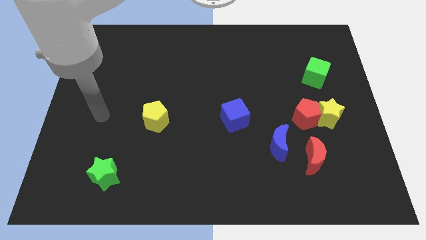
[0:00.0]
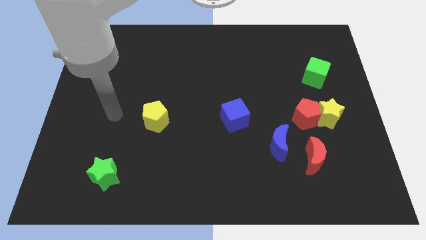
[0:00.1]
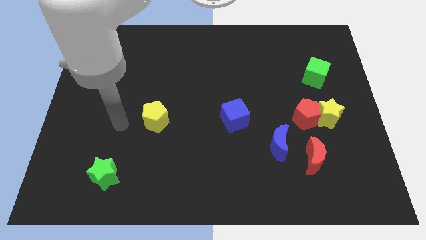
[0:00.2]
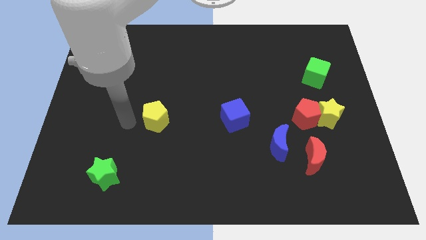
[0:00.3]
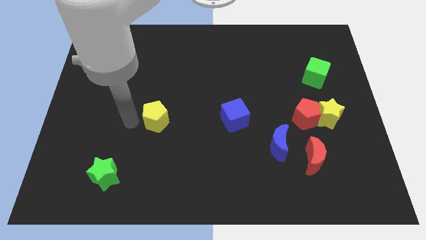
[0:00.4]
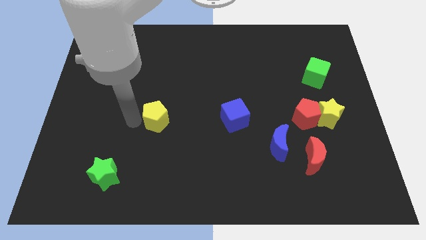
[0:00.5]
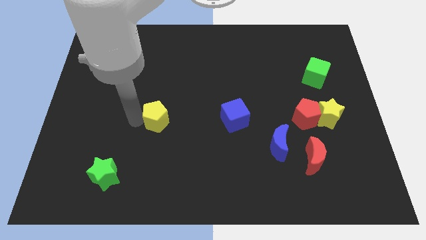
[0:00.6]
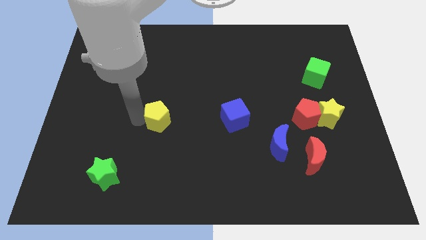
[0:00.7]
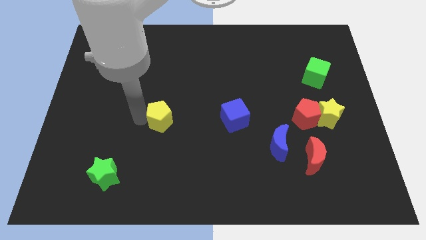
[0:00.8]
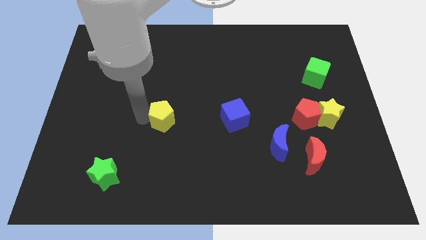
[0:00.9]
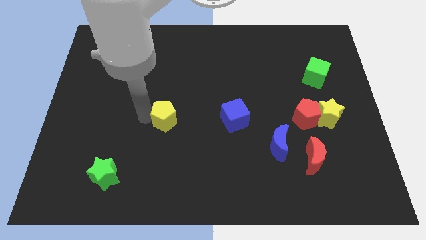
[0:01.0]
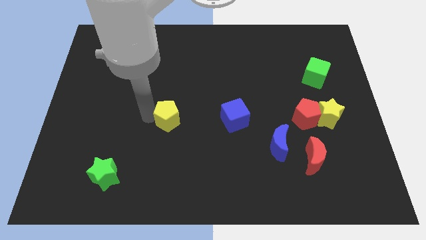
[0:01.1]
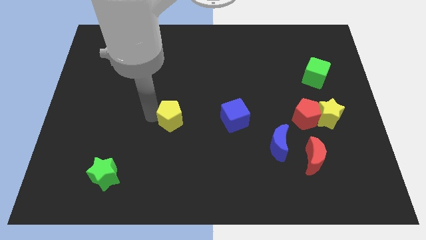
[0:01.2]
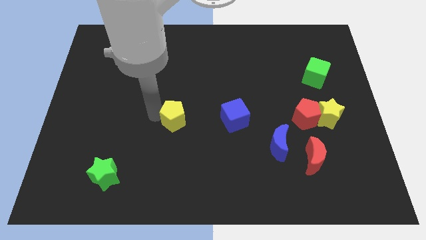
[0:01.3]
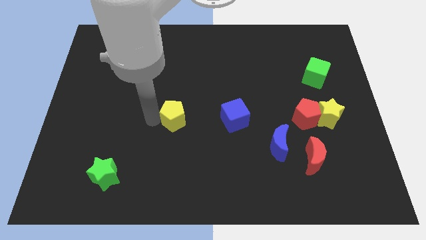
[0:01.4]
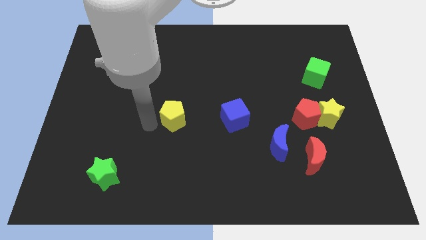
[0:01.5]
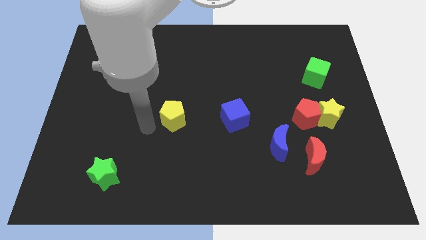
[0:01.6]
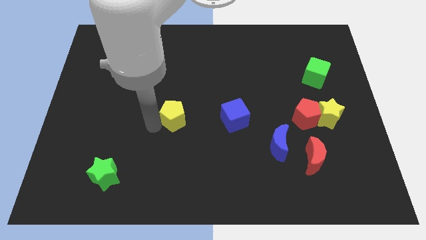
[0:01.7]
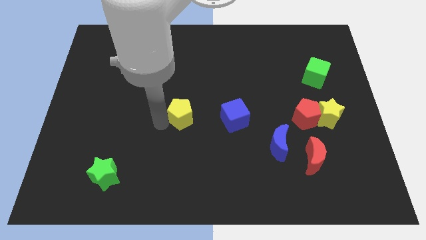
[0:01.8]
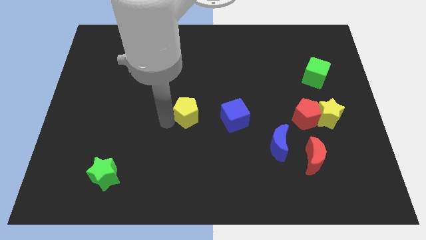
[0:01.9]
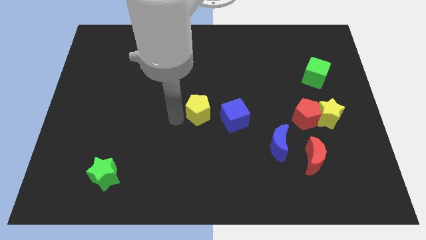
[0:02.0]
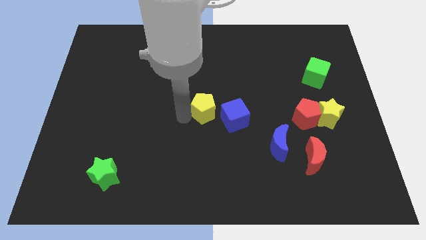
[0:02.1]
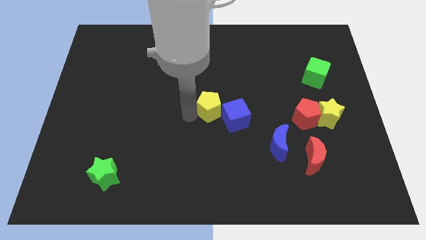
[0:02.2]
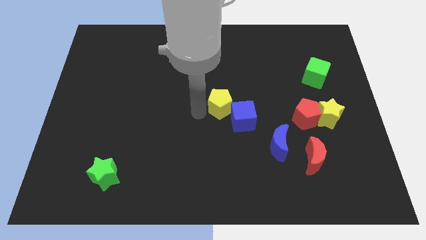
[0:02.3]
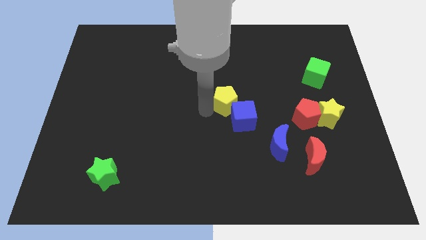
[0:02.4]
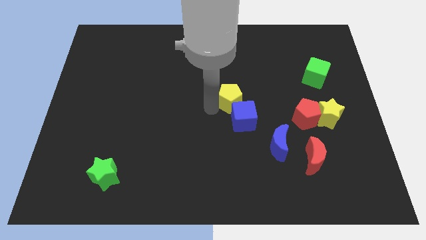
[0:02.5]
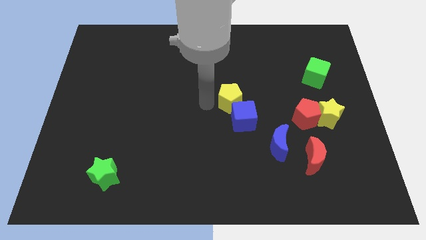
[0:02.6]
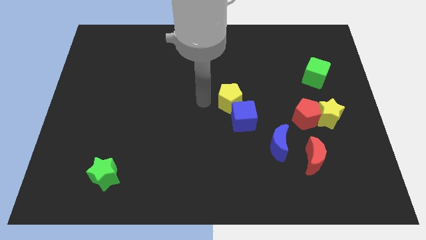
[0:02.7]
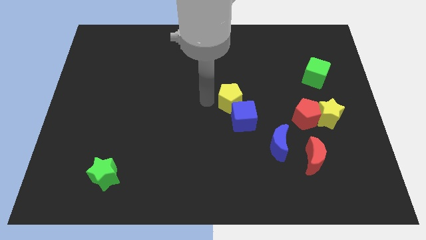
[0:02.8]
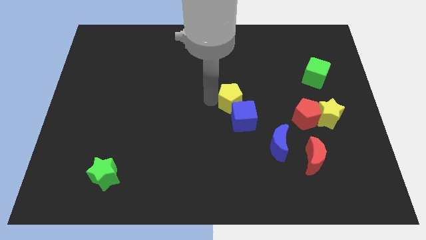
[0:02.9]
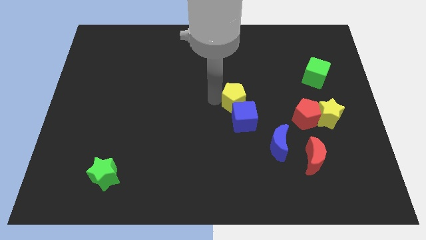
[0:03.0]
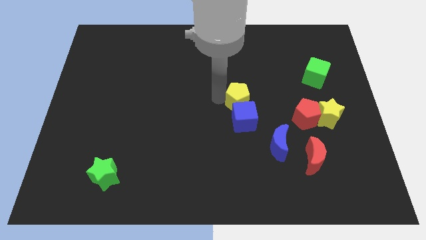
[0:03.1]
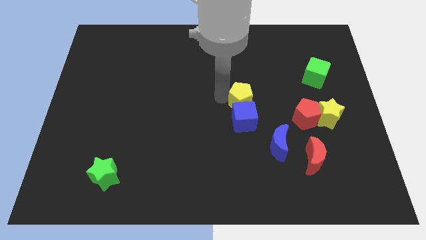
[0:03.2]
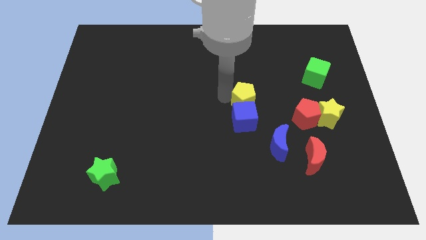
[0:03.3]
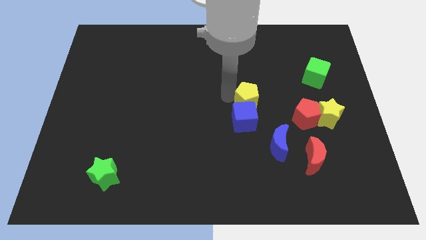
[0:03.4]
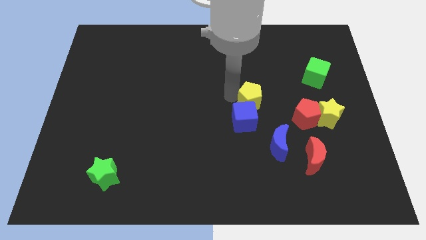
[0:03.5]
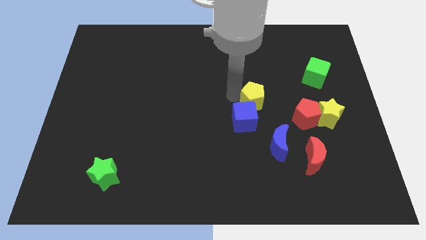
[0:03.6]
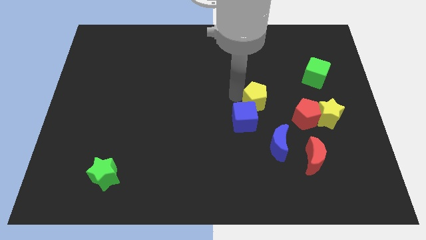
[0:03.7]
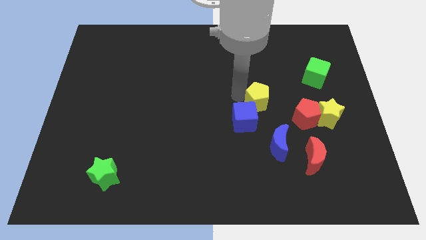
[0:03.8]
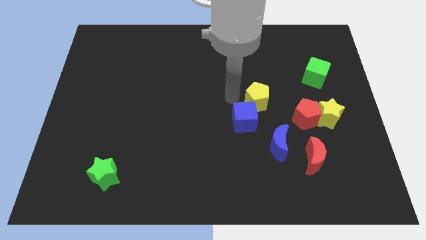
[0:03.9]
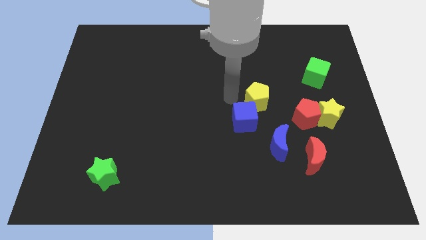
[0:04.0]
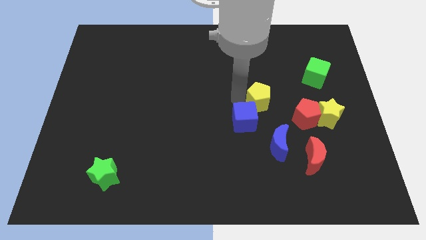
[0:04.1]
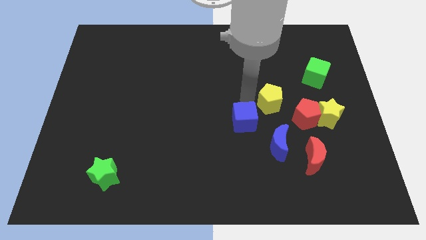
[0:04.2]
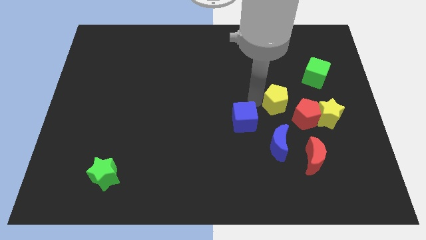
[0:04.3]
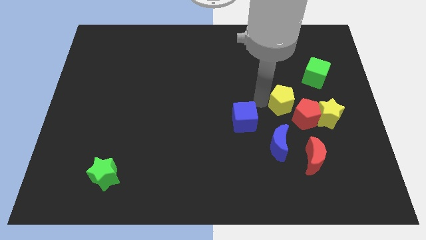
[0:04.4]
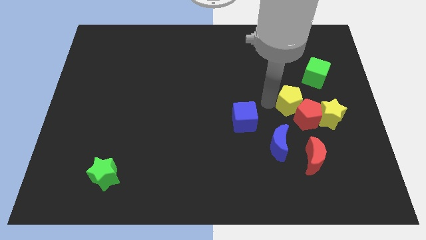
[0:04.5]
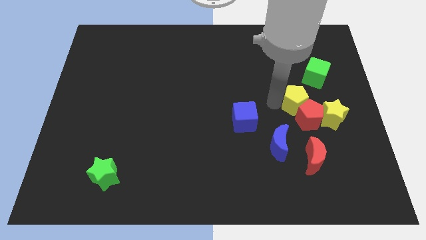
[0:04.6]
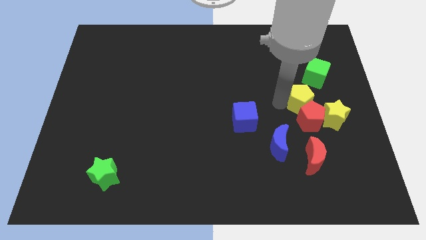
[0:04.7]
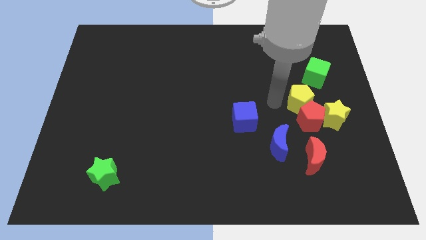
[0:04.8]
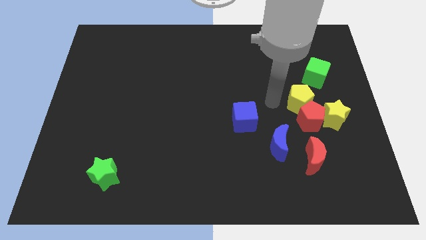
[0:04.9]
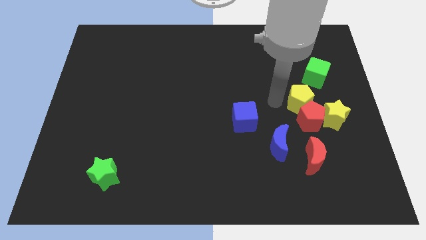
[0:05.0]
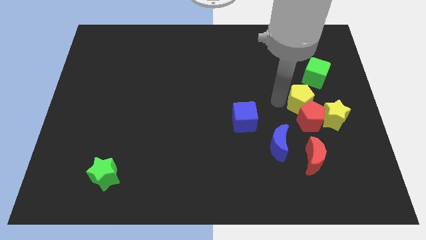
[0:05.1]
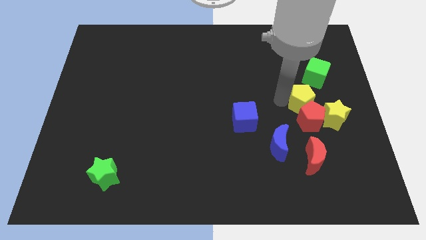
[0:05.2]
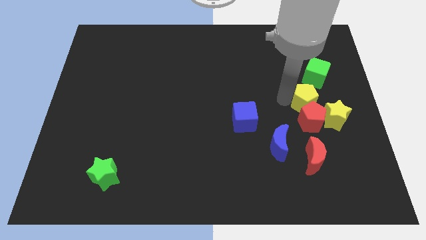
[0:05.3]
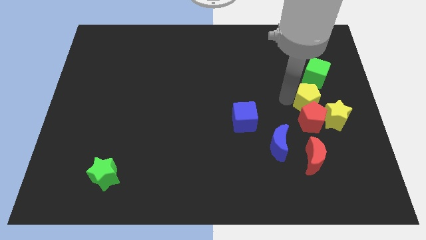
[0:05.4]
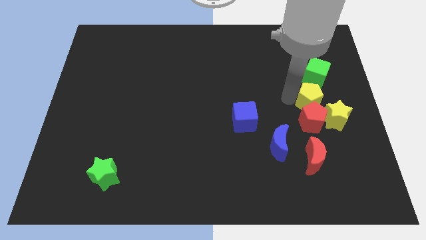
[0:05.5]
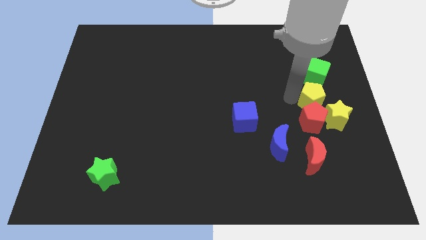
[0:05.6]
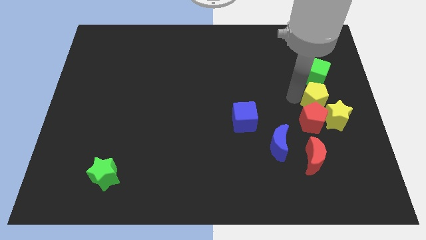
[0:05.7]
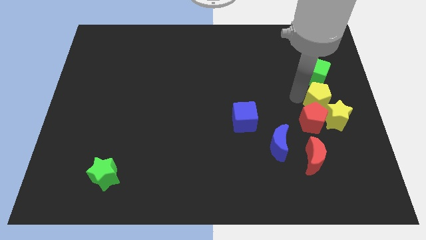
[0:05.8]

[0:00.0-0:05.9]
push the yellow pentagon to the center right
